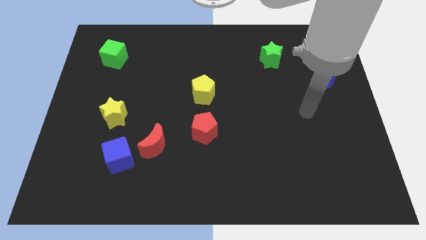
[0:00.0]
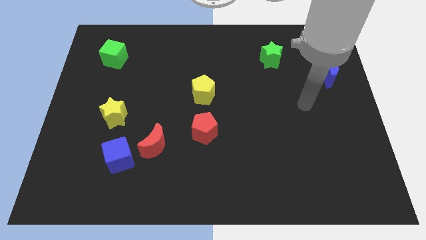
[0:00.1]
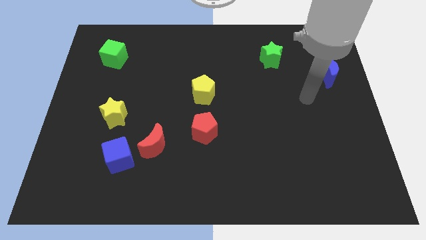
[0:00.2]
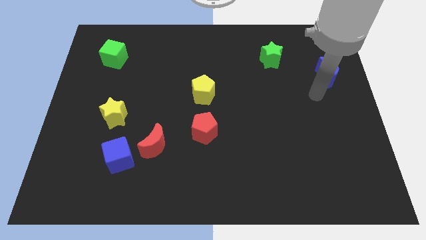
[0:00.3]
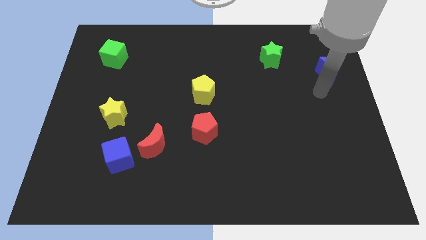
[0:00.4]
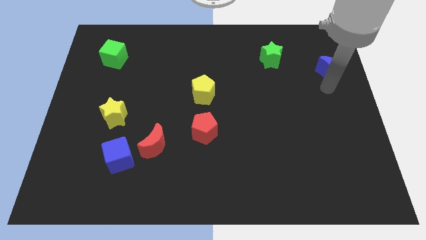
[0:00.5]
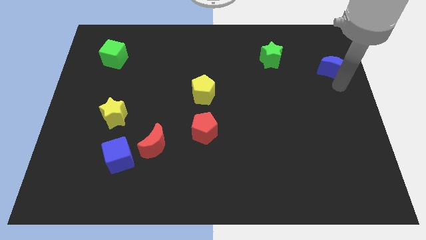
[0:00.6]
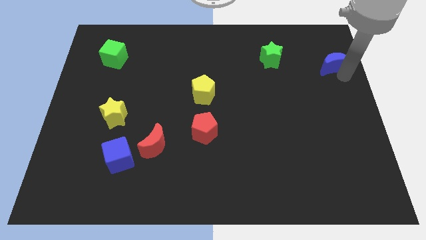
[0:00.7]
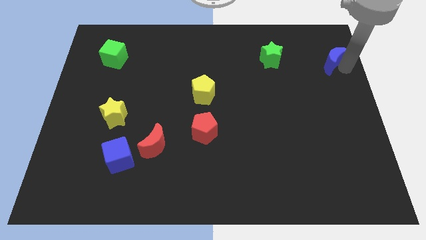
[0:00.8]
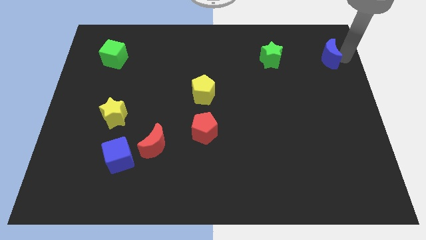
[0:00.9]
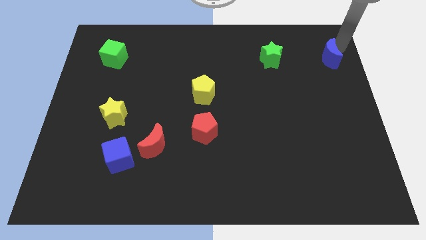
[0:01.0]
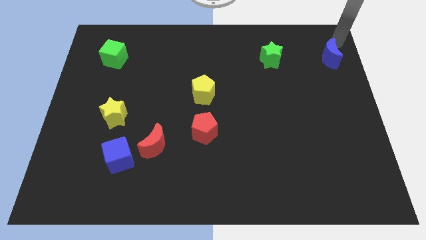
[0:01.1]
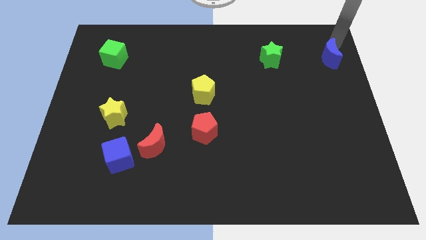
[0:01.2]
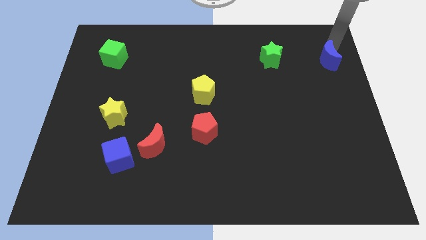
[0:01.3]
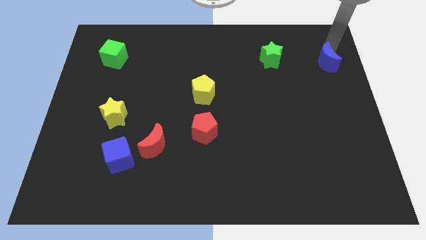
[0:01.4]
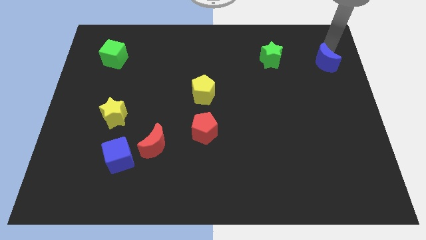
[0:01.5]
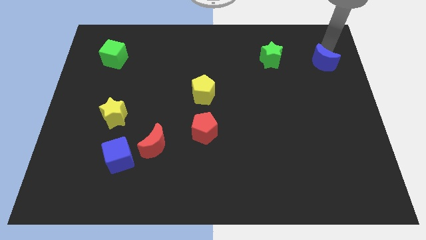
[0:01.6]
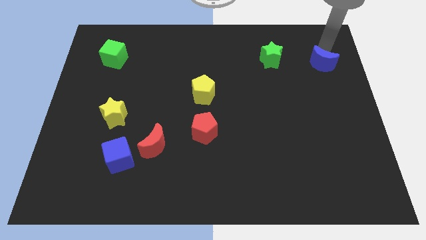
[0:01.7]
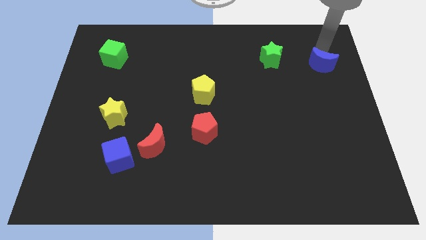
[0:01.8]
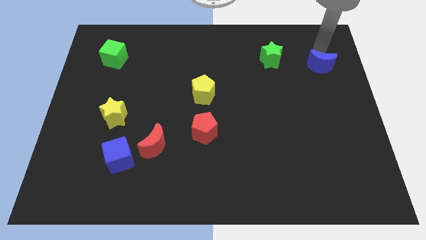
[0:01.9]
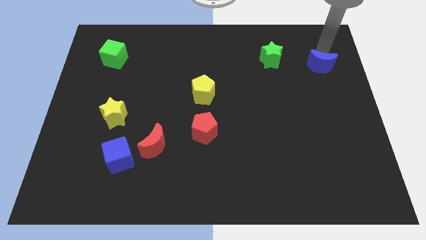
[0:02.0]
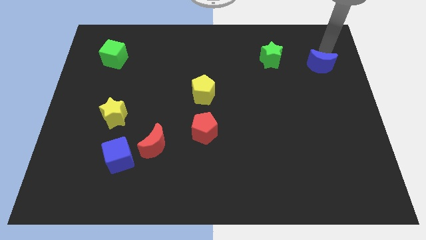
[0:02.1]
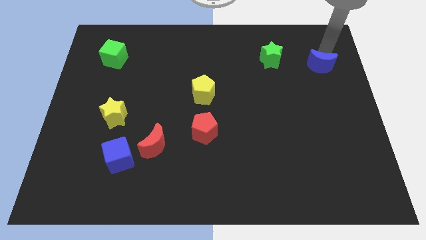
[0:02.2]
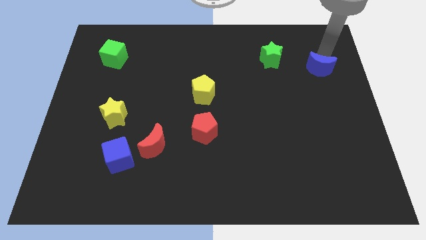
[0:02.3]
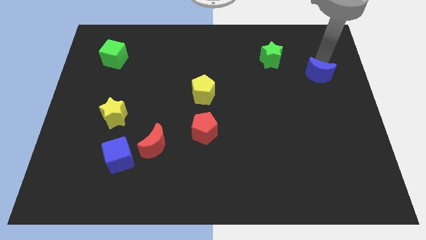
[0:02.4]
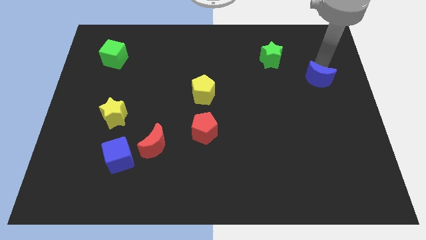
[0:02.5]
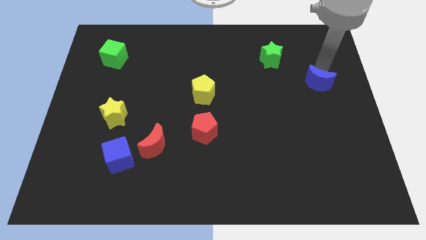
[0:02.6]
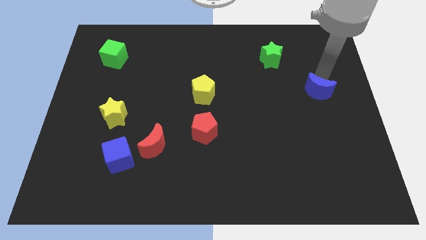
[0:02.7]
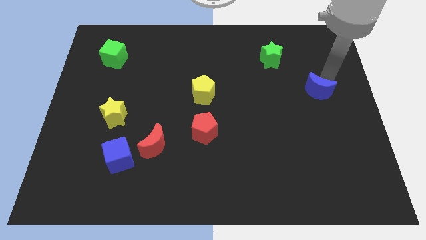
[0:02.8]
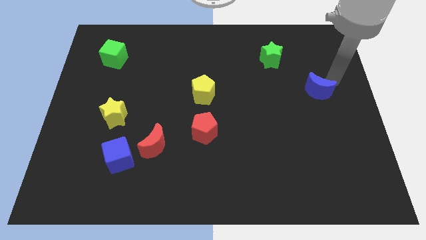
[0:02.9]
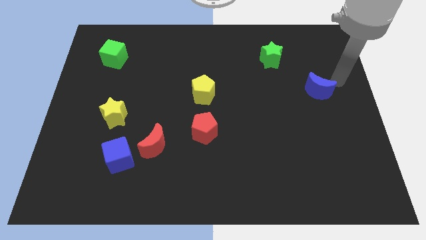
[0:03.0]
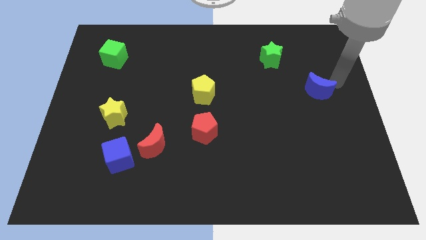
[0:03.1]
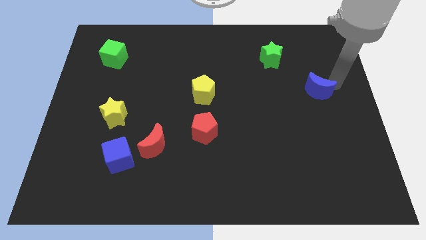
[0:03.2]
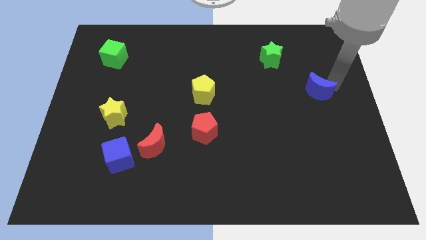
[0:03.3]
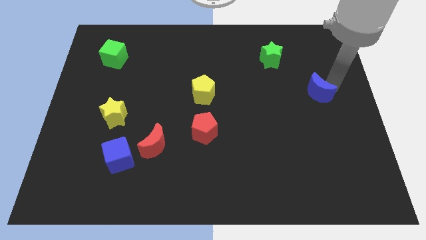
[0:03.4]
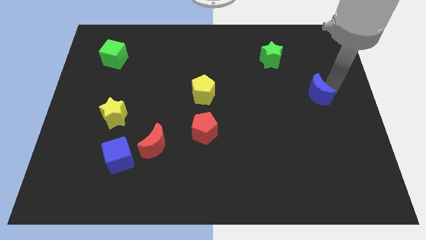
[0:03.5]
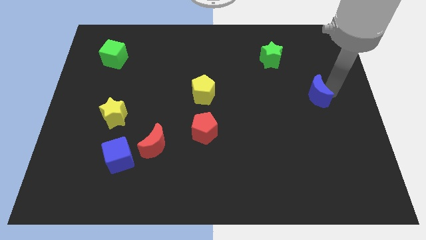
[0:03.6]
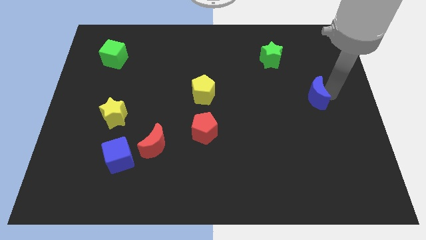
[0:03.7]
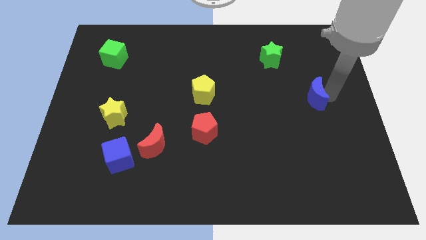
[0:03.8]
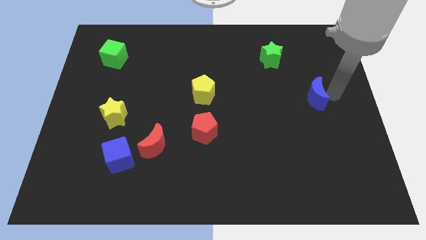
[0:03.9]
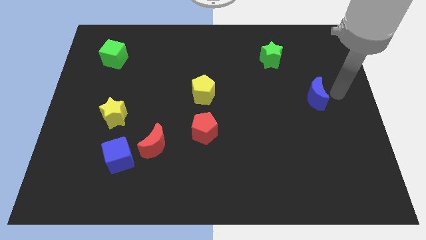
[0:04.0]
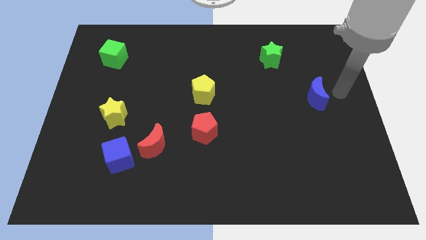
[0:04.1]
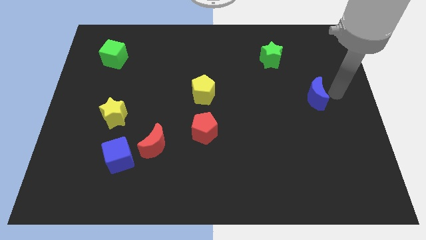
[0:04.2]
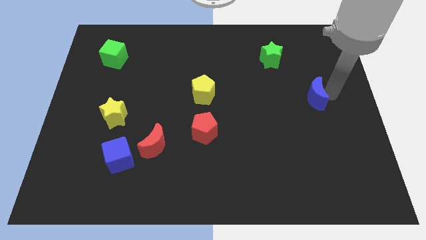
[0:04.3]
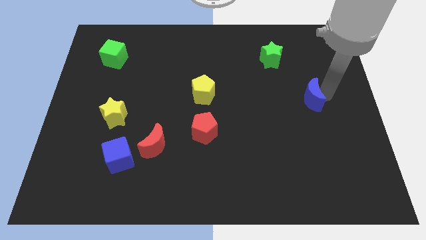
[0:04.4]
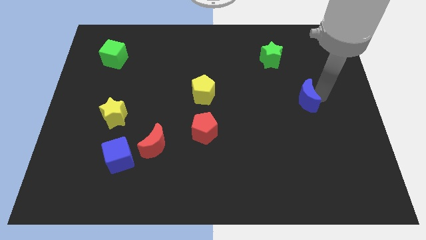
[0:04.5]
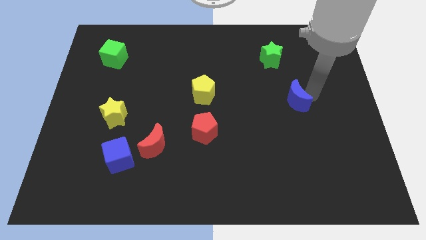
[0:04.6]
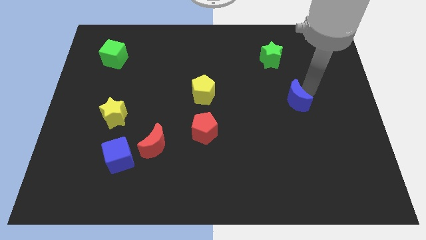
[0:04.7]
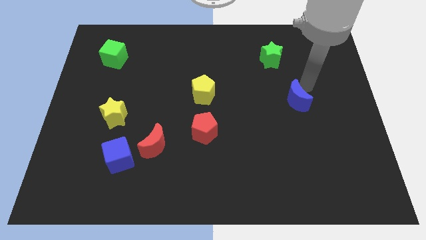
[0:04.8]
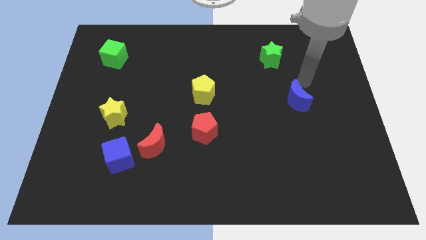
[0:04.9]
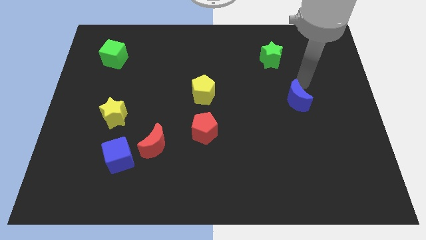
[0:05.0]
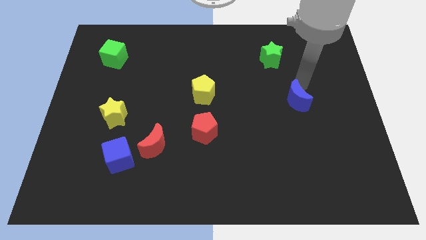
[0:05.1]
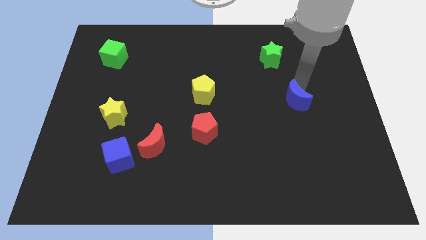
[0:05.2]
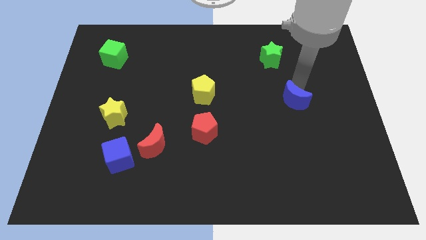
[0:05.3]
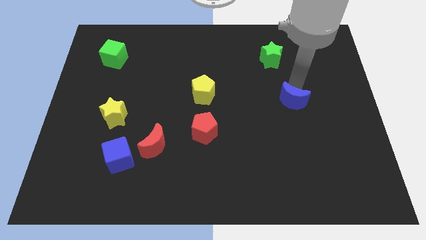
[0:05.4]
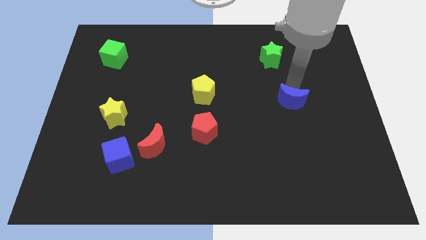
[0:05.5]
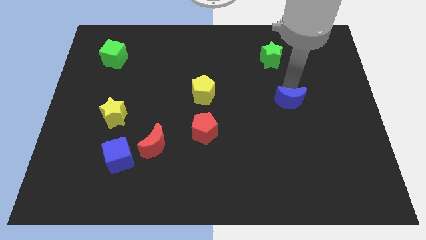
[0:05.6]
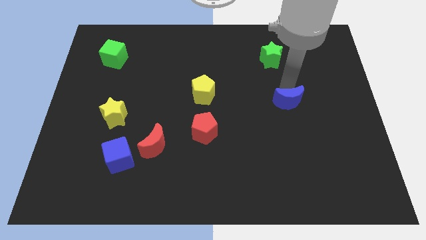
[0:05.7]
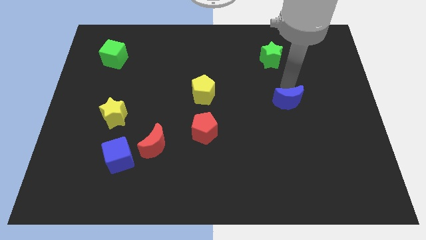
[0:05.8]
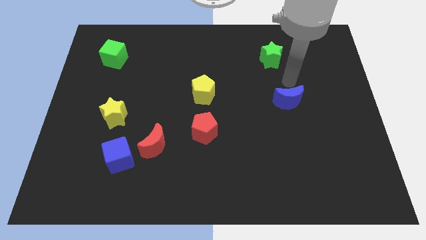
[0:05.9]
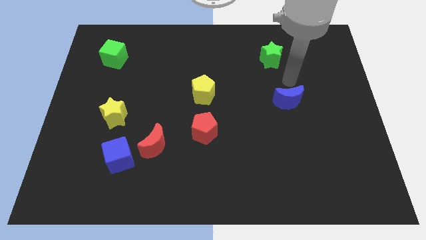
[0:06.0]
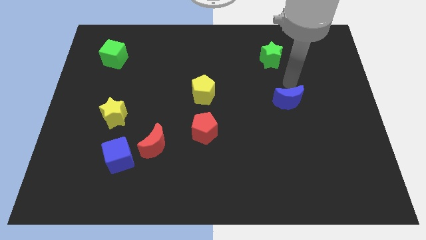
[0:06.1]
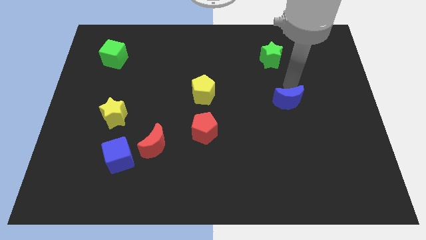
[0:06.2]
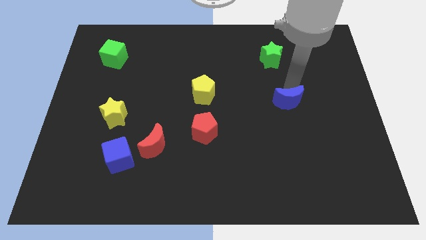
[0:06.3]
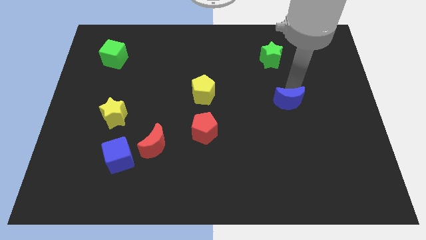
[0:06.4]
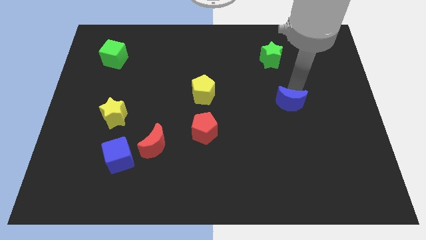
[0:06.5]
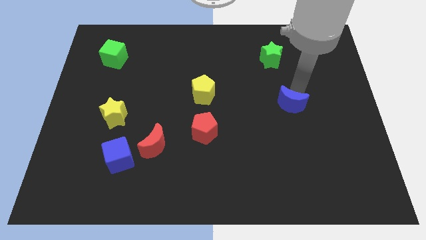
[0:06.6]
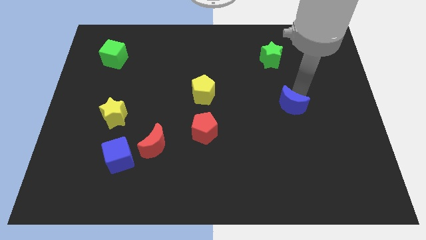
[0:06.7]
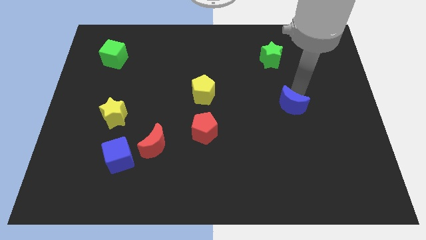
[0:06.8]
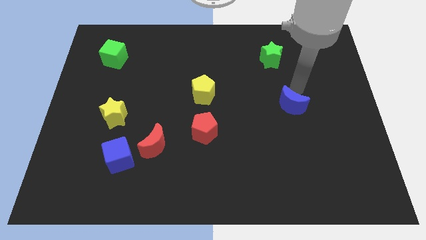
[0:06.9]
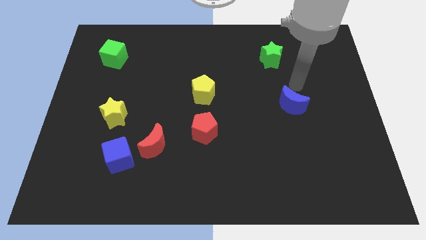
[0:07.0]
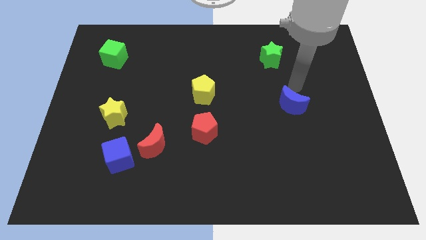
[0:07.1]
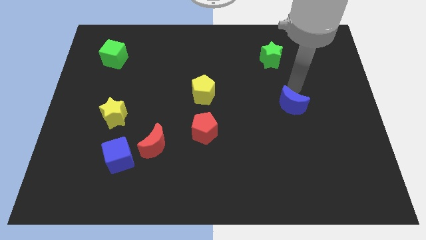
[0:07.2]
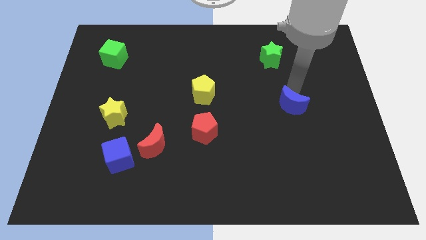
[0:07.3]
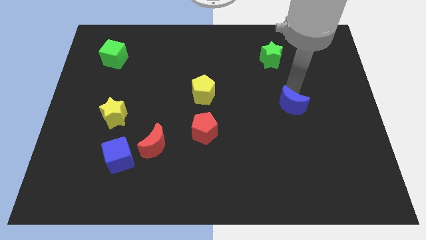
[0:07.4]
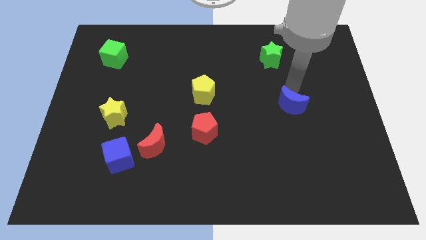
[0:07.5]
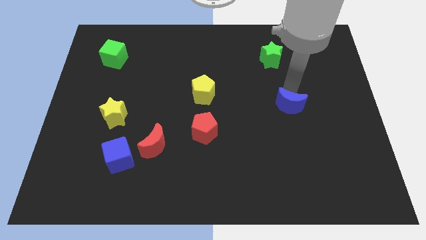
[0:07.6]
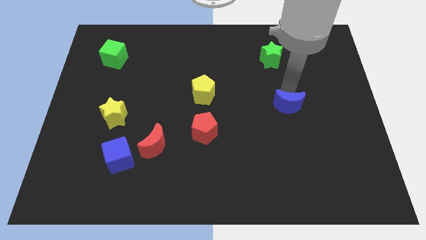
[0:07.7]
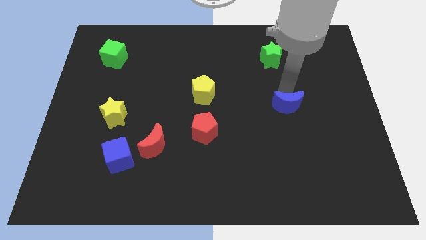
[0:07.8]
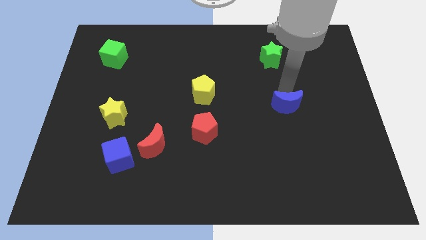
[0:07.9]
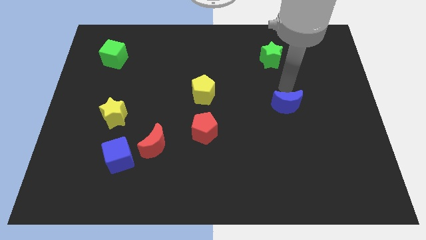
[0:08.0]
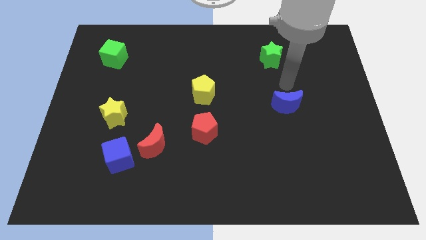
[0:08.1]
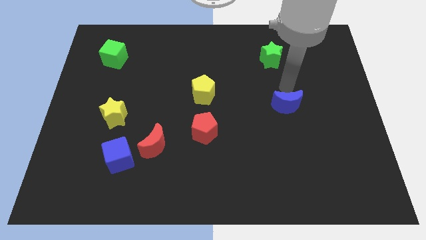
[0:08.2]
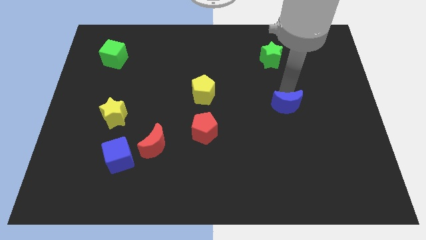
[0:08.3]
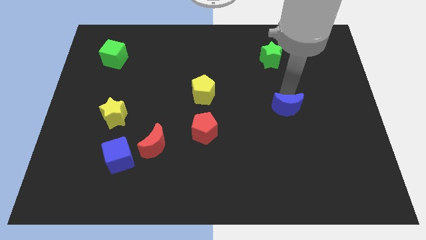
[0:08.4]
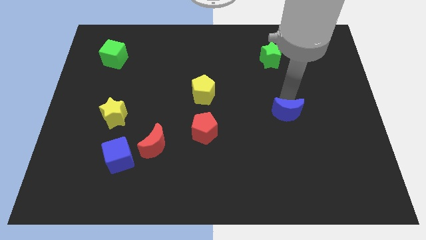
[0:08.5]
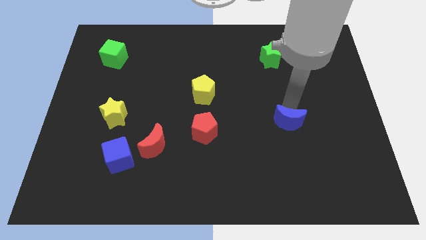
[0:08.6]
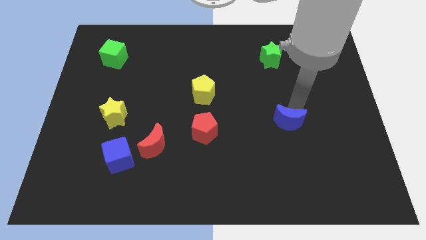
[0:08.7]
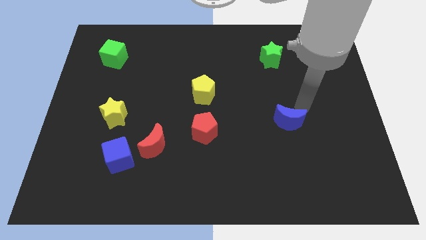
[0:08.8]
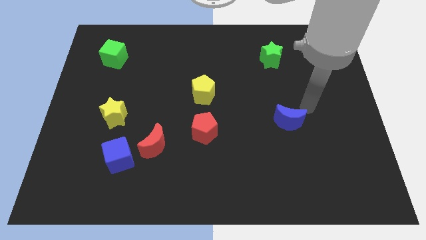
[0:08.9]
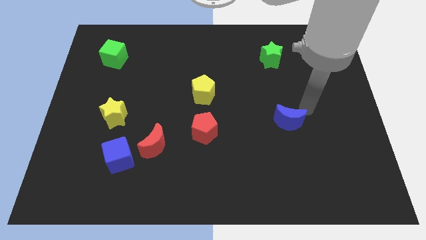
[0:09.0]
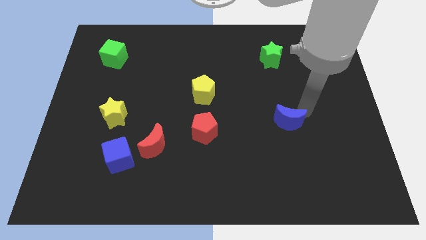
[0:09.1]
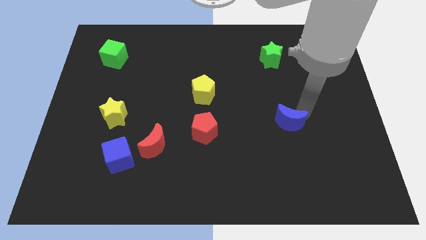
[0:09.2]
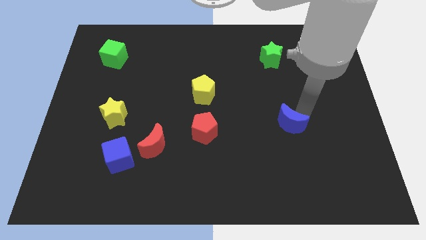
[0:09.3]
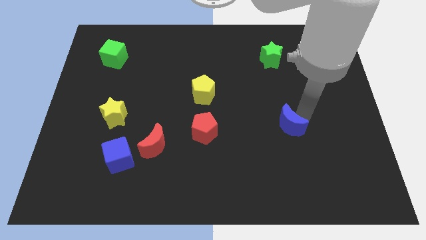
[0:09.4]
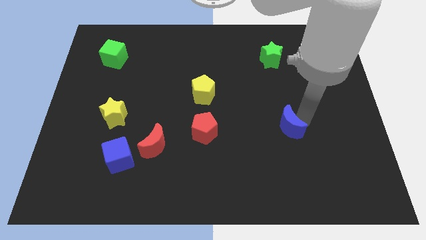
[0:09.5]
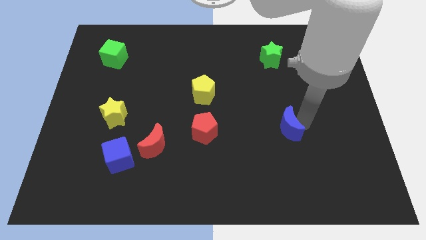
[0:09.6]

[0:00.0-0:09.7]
slide the blue moon down and then to the left
